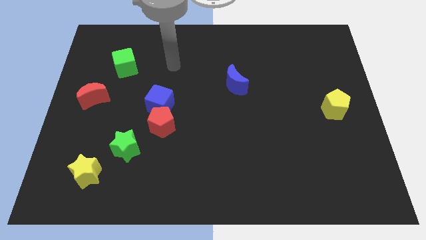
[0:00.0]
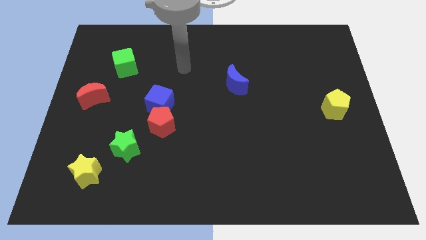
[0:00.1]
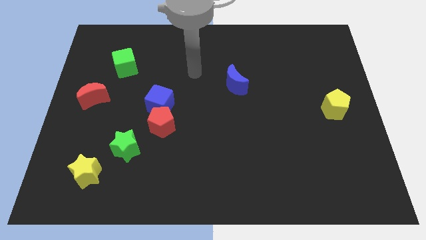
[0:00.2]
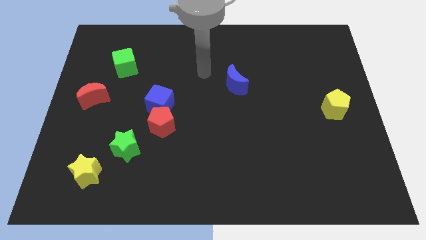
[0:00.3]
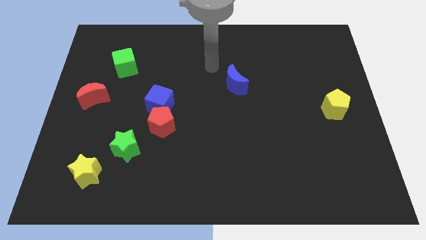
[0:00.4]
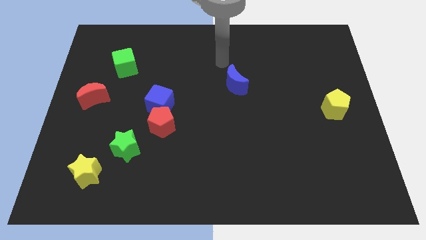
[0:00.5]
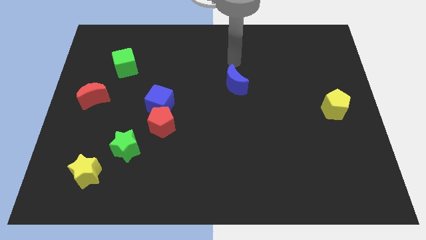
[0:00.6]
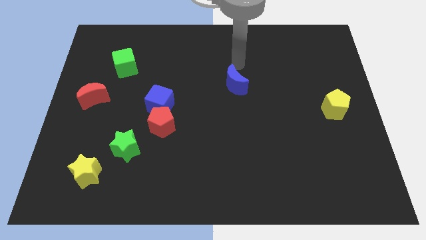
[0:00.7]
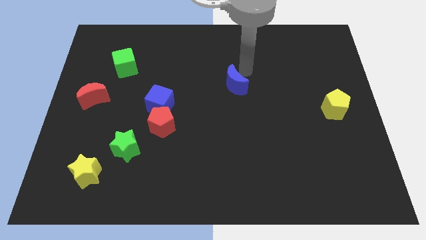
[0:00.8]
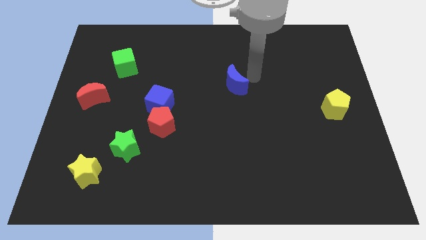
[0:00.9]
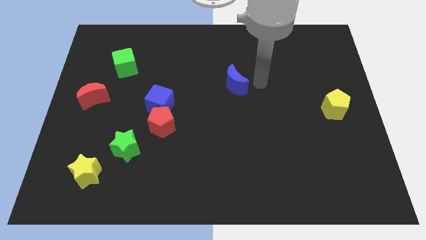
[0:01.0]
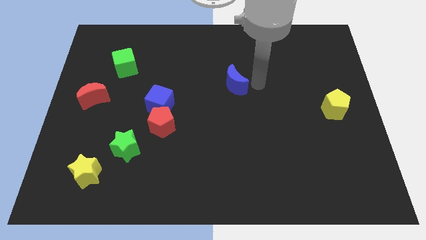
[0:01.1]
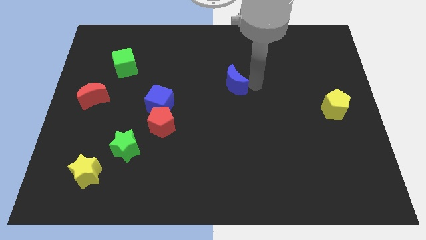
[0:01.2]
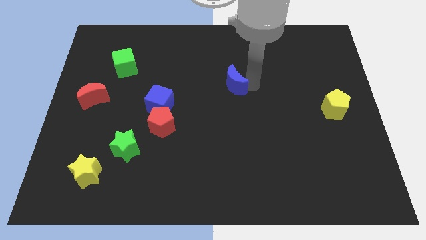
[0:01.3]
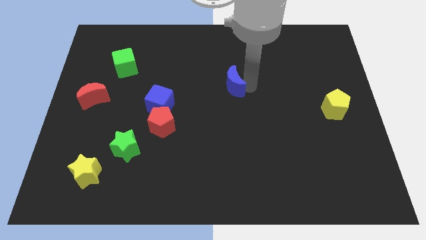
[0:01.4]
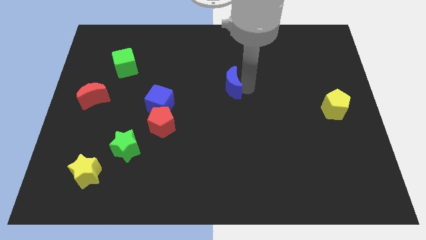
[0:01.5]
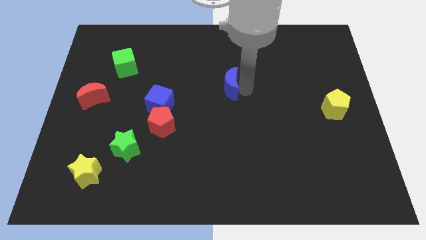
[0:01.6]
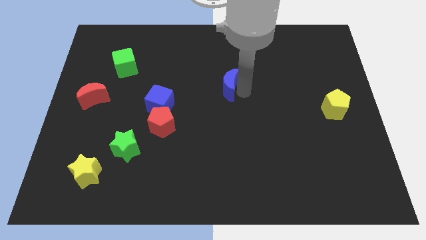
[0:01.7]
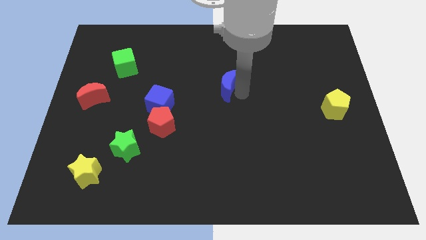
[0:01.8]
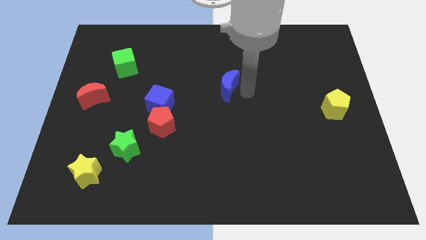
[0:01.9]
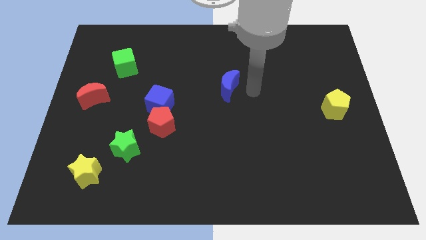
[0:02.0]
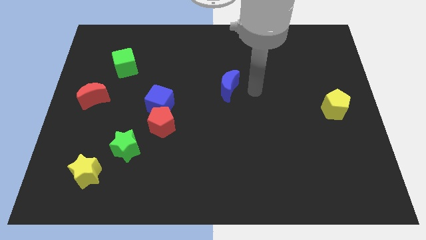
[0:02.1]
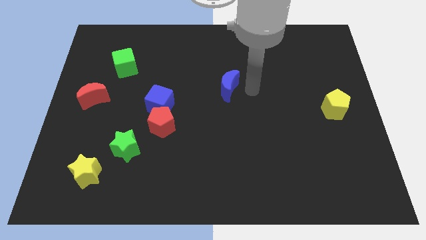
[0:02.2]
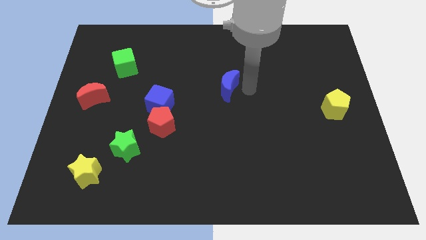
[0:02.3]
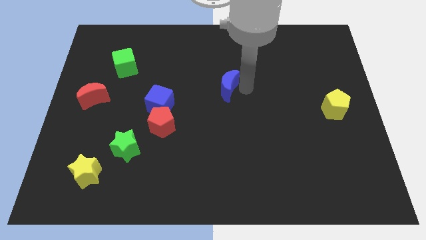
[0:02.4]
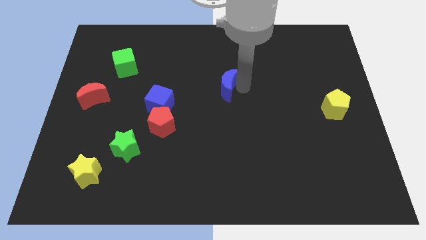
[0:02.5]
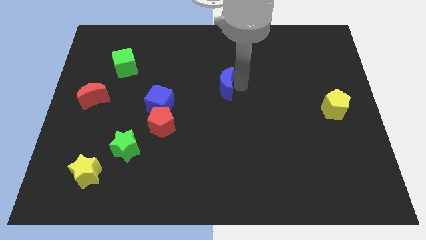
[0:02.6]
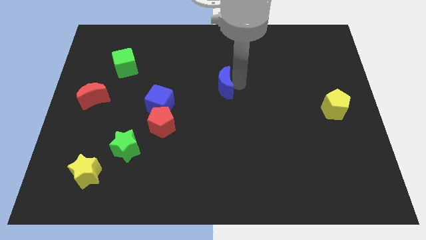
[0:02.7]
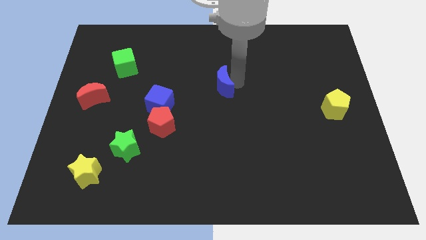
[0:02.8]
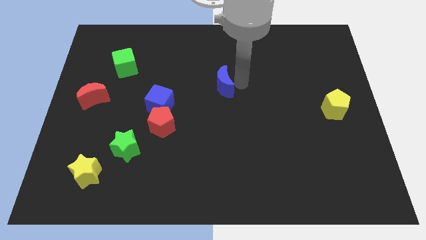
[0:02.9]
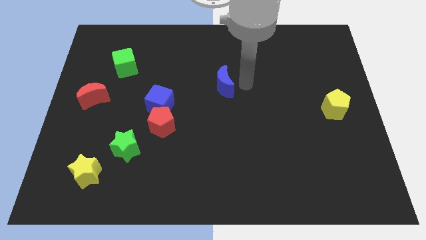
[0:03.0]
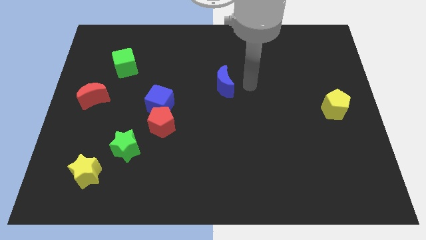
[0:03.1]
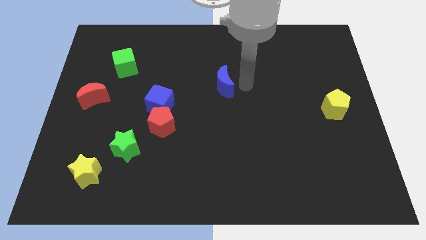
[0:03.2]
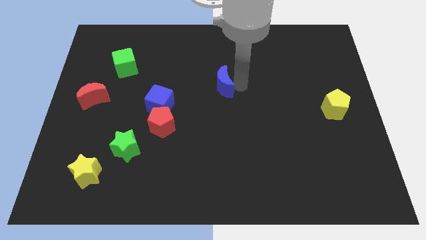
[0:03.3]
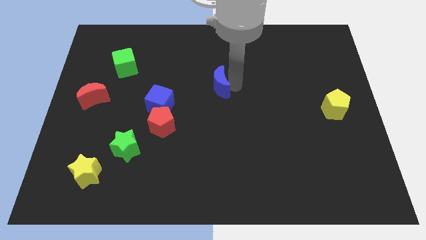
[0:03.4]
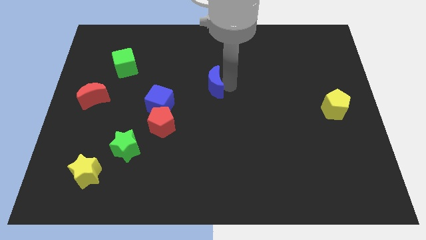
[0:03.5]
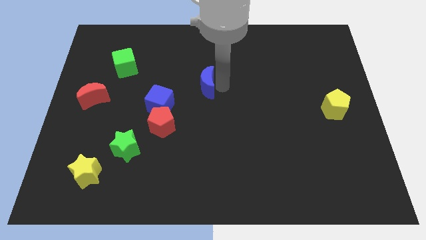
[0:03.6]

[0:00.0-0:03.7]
slightly move the blue moon left

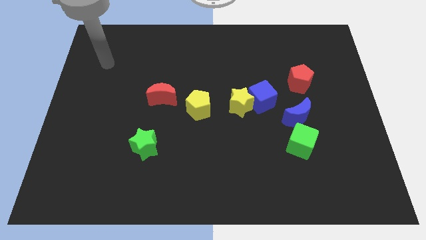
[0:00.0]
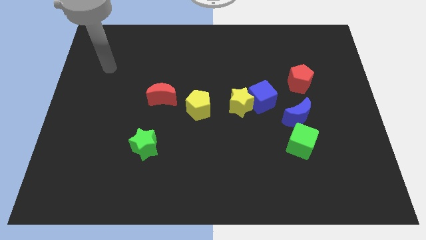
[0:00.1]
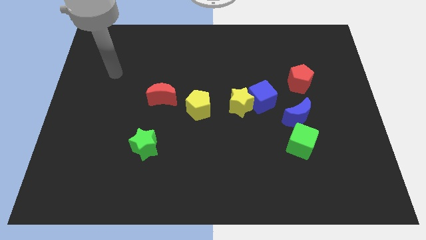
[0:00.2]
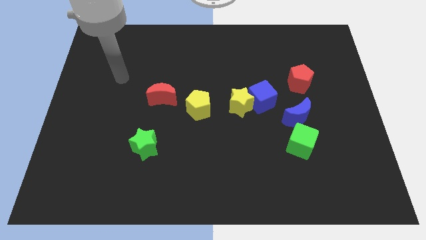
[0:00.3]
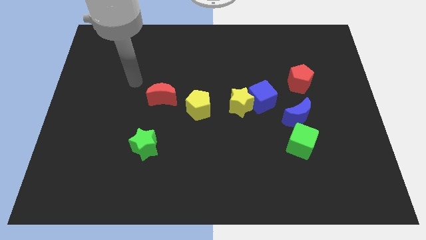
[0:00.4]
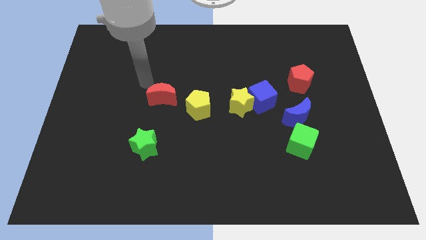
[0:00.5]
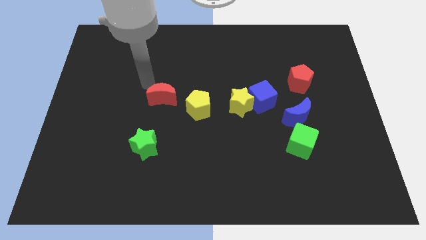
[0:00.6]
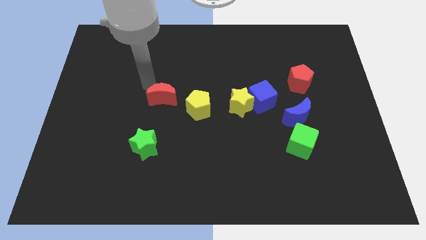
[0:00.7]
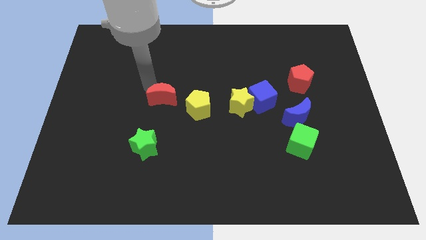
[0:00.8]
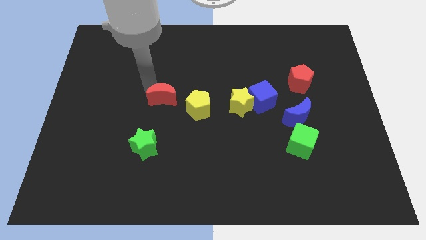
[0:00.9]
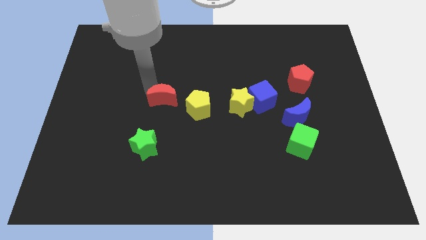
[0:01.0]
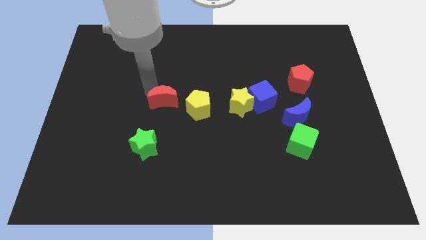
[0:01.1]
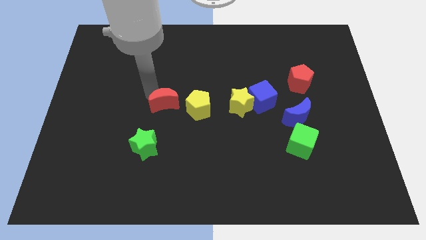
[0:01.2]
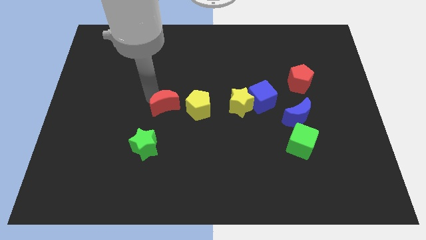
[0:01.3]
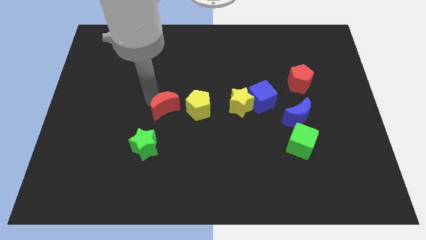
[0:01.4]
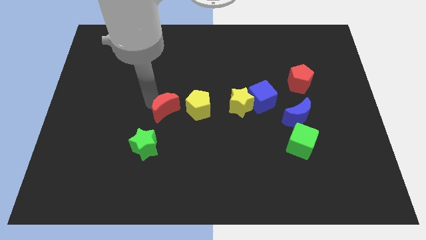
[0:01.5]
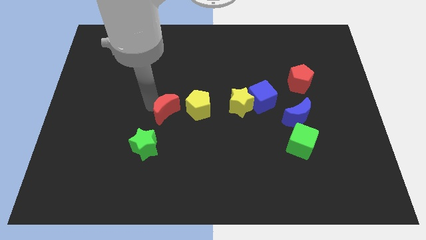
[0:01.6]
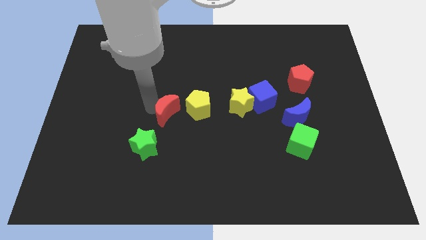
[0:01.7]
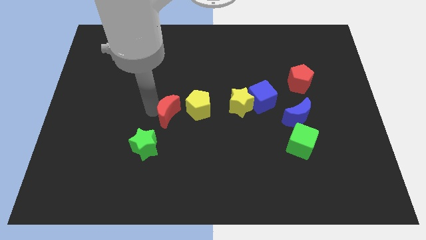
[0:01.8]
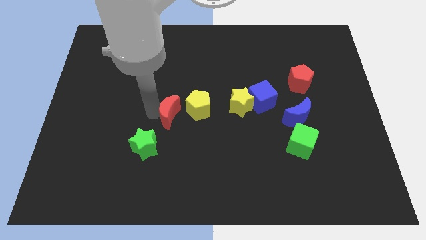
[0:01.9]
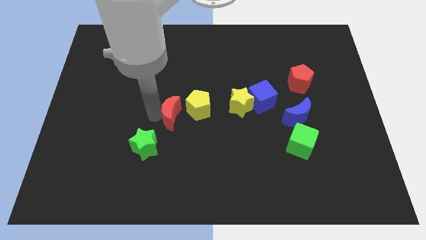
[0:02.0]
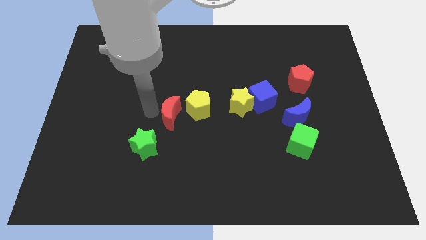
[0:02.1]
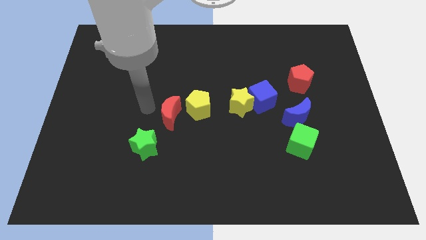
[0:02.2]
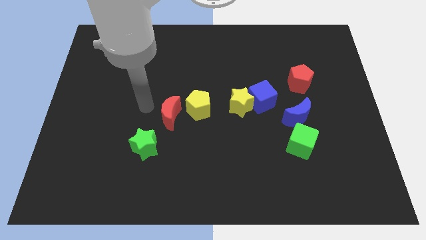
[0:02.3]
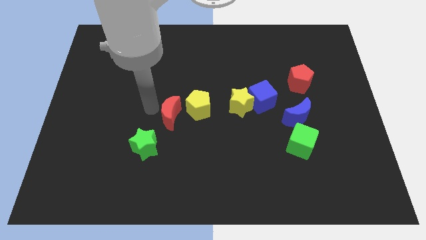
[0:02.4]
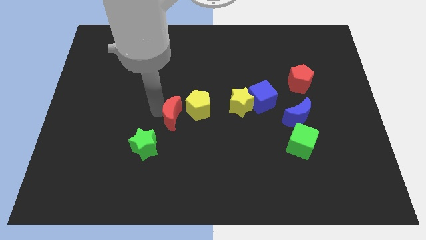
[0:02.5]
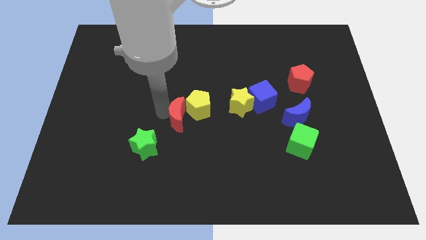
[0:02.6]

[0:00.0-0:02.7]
slide the red moon down and right slightly

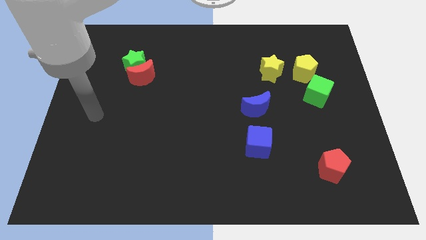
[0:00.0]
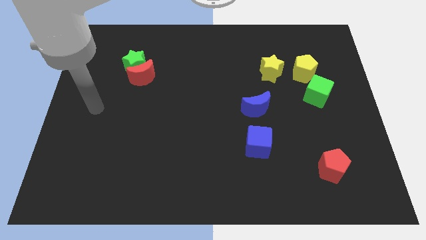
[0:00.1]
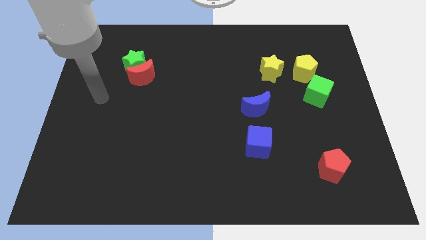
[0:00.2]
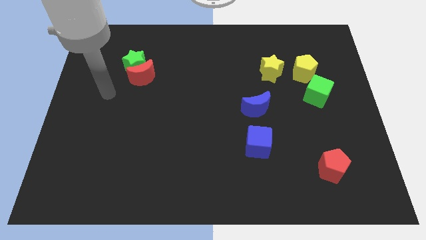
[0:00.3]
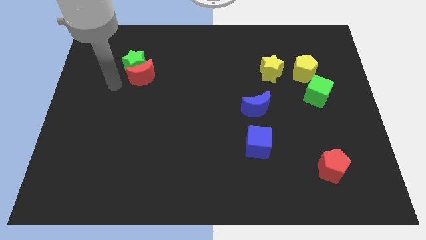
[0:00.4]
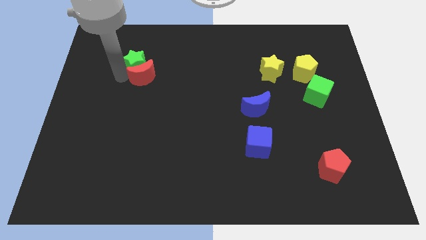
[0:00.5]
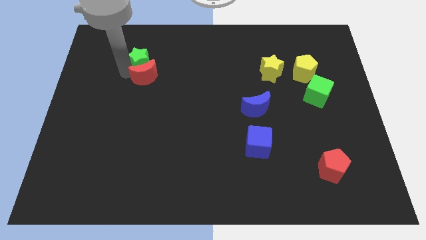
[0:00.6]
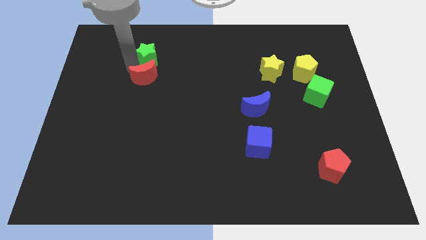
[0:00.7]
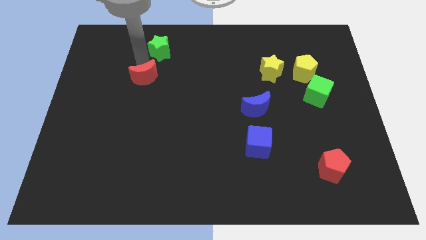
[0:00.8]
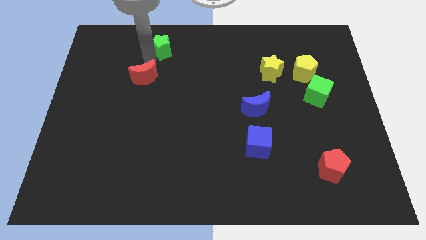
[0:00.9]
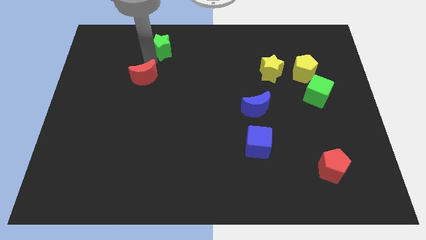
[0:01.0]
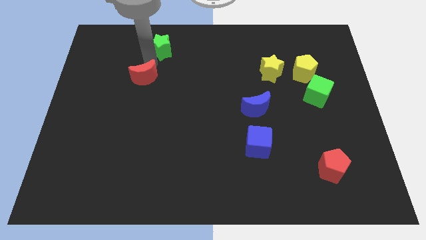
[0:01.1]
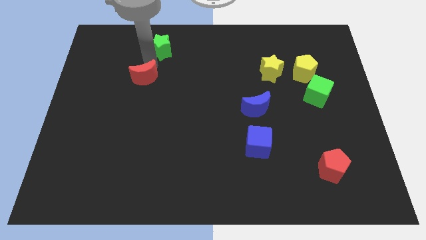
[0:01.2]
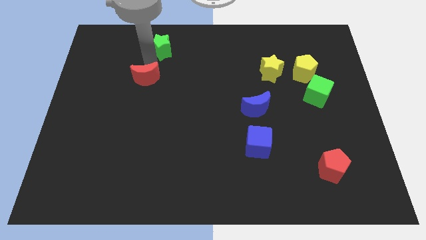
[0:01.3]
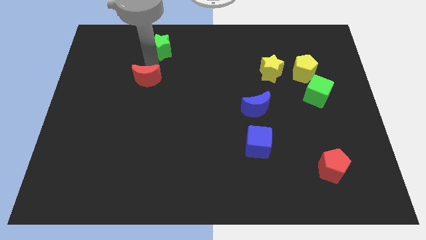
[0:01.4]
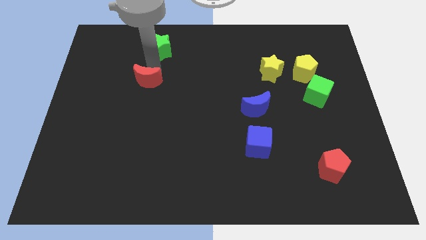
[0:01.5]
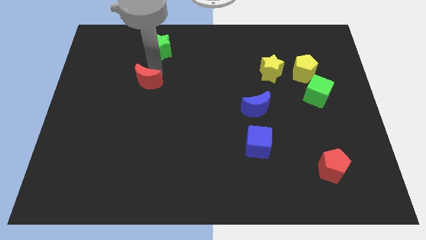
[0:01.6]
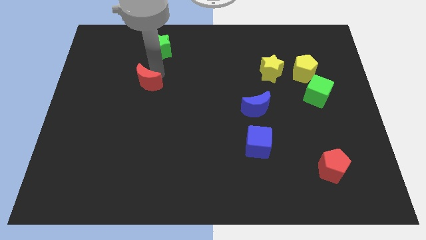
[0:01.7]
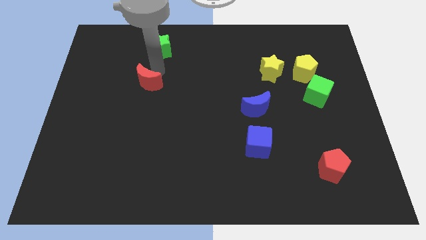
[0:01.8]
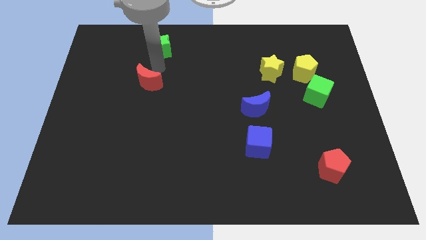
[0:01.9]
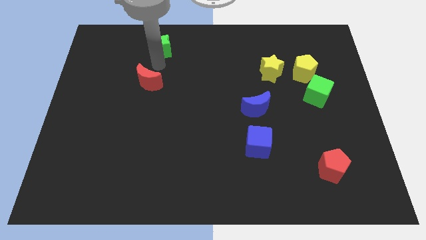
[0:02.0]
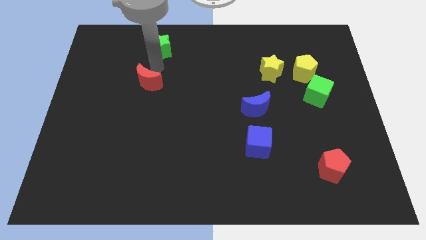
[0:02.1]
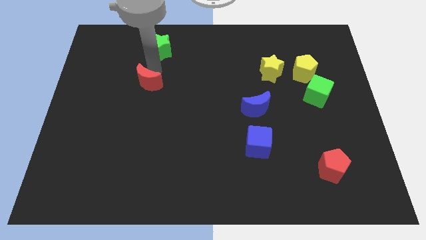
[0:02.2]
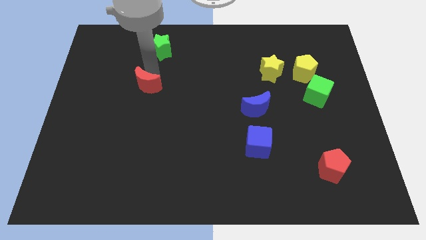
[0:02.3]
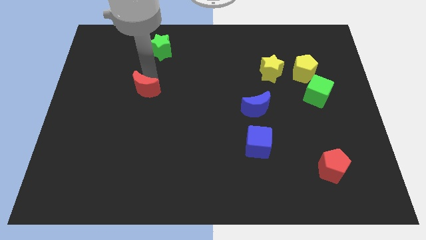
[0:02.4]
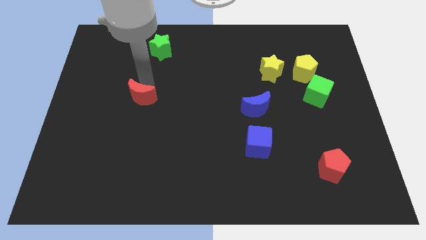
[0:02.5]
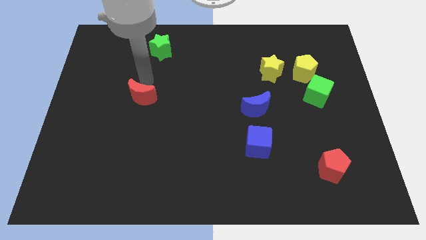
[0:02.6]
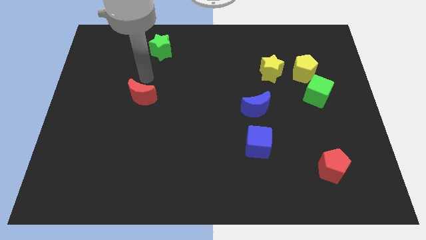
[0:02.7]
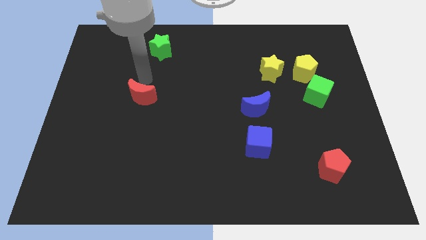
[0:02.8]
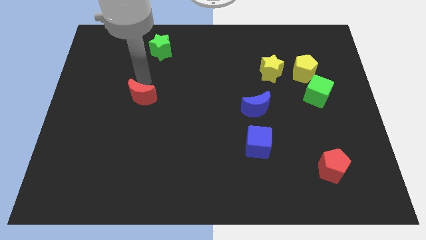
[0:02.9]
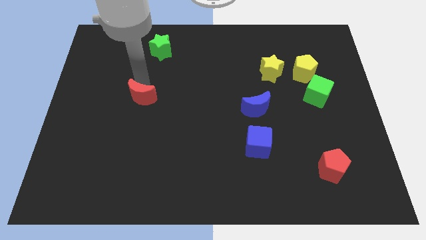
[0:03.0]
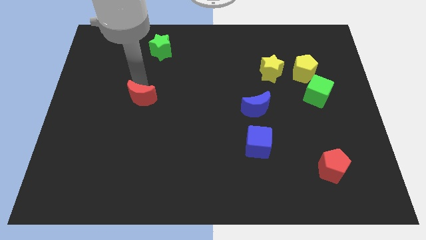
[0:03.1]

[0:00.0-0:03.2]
slide the red moon a bit down
